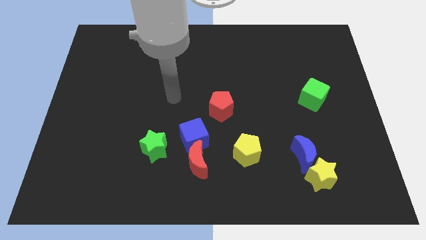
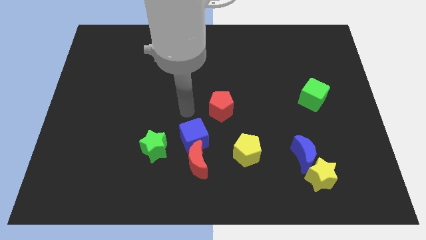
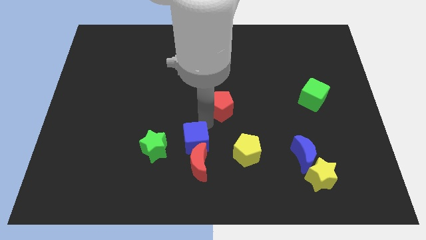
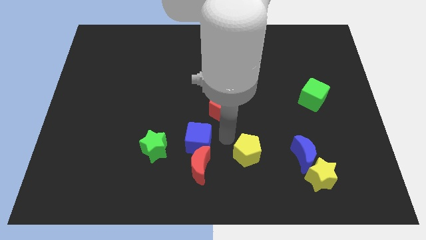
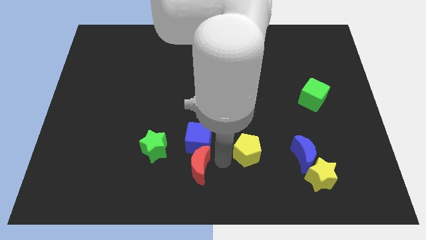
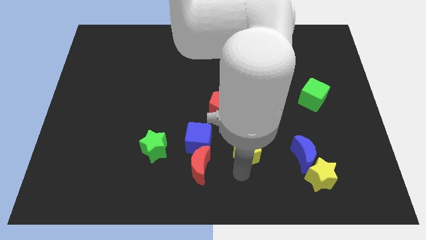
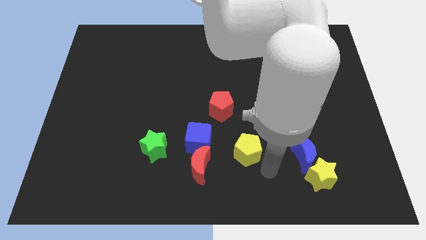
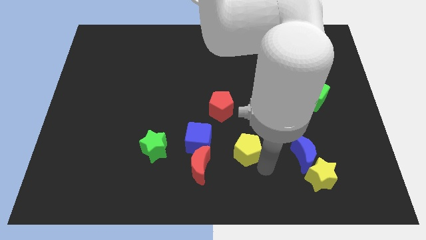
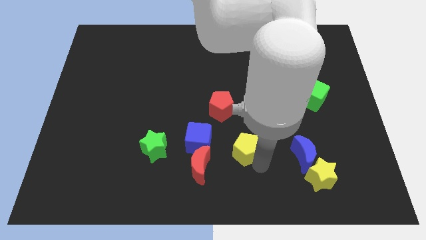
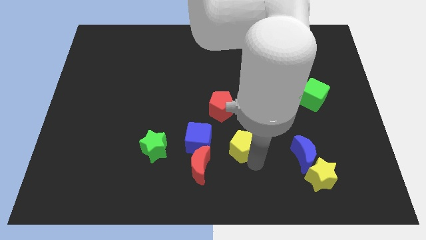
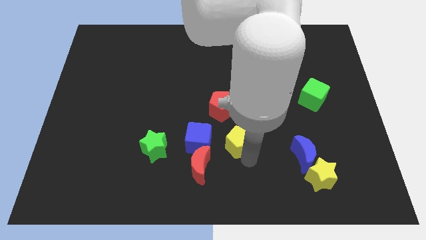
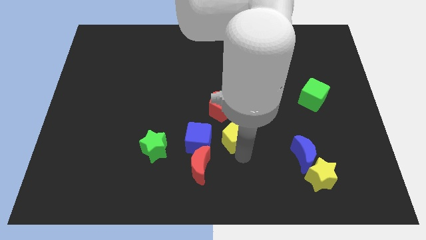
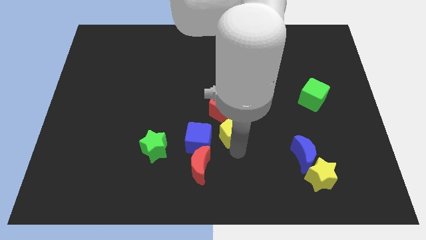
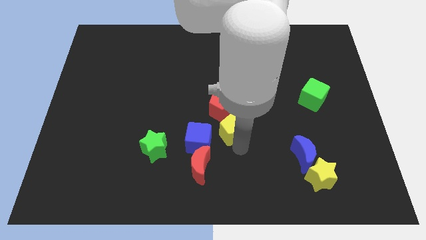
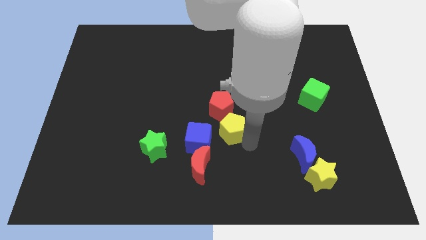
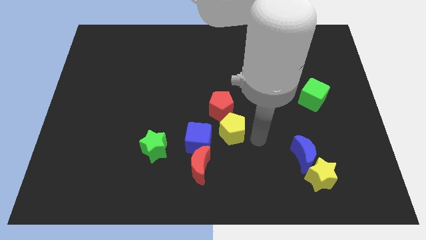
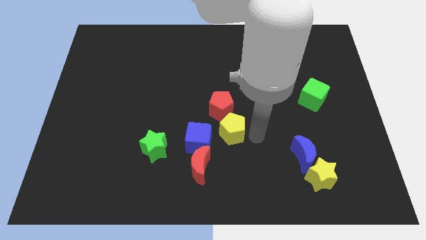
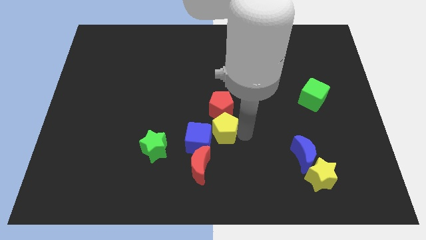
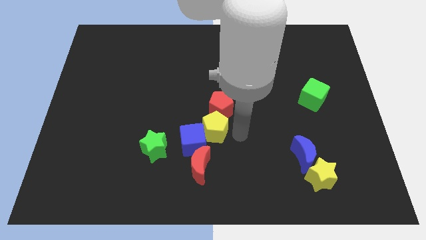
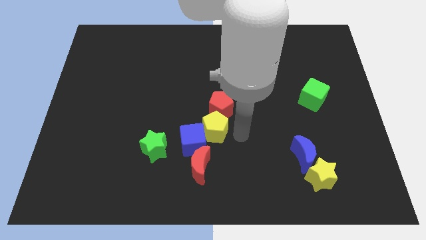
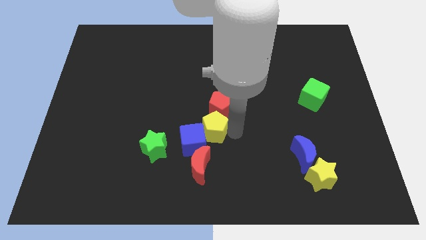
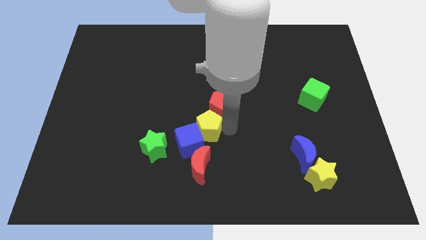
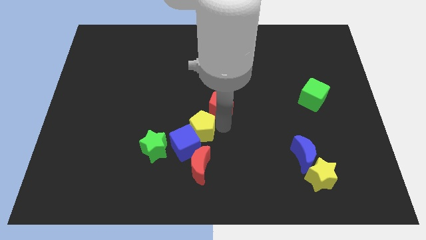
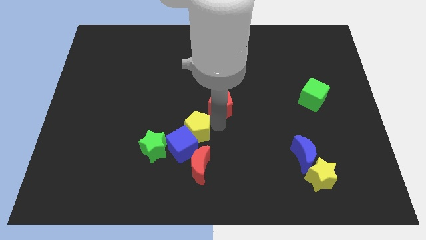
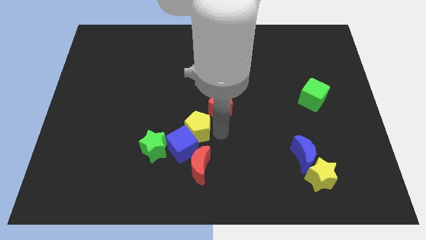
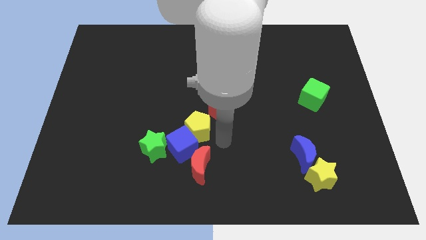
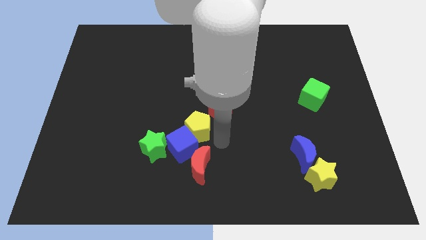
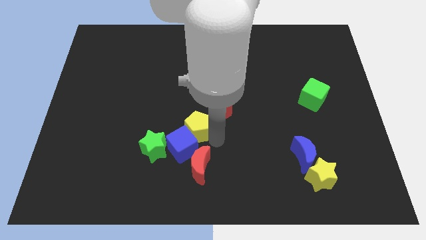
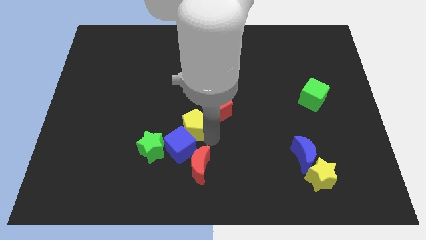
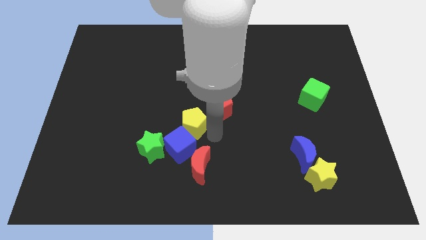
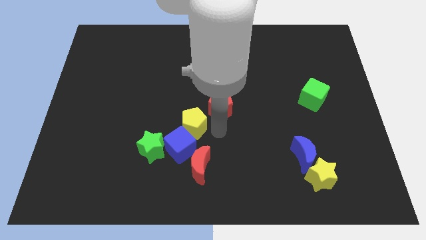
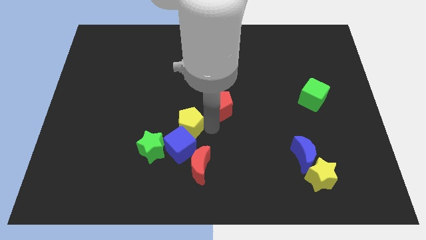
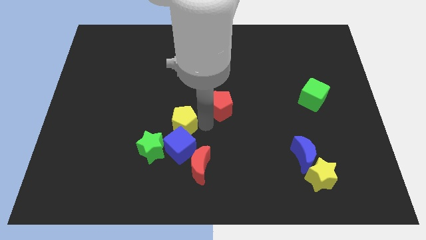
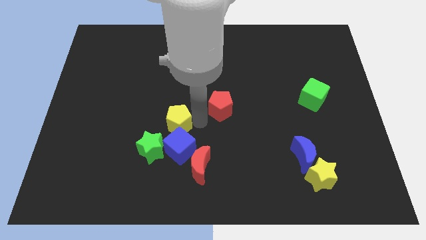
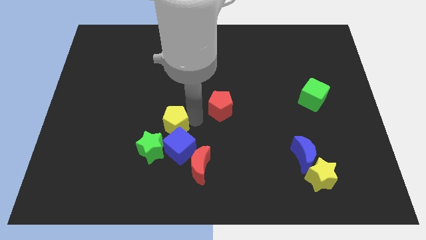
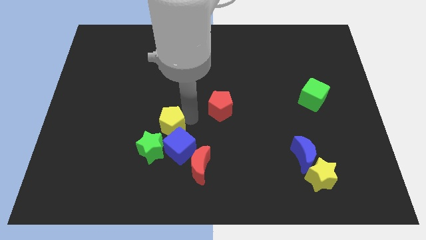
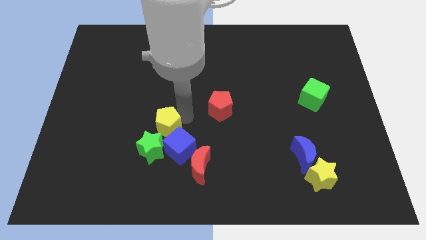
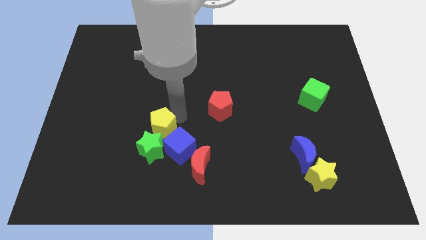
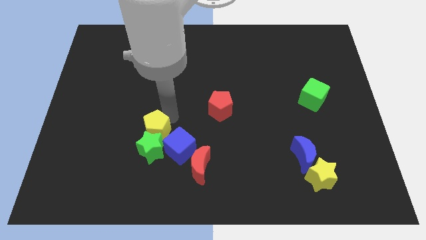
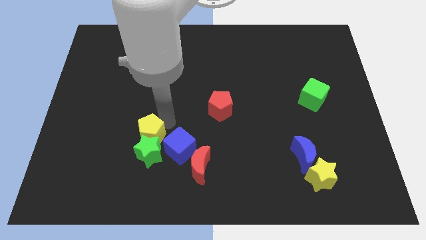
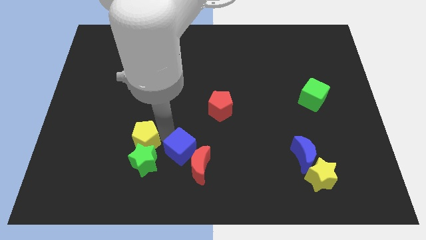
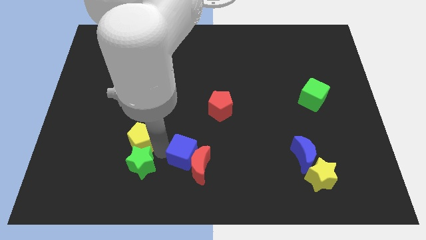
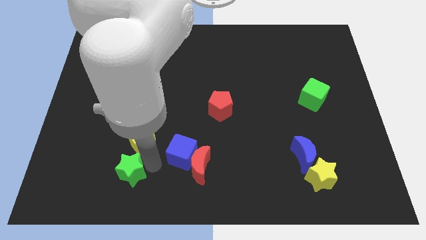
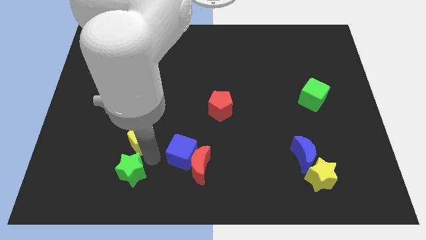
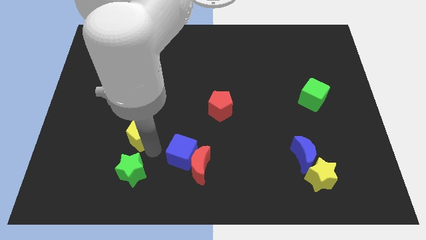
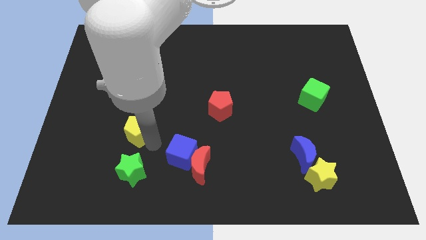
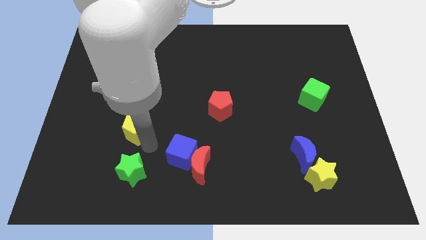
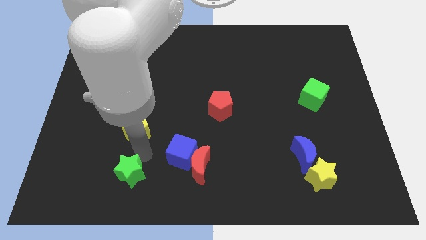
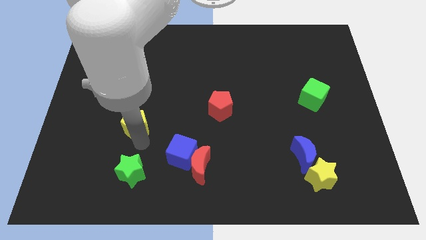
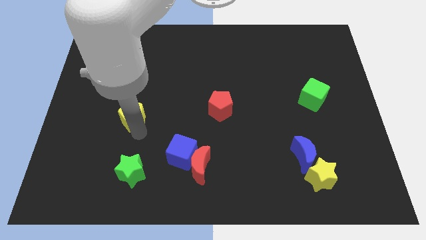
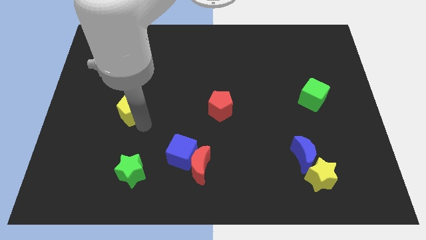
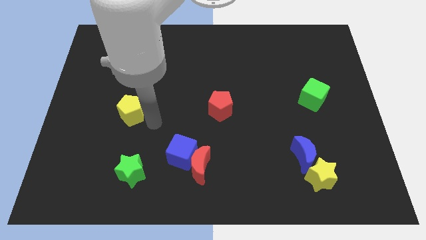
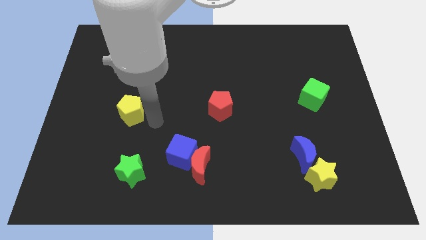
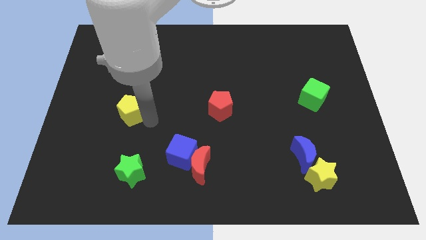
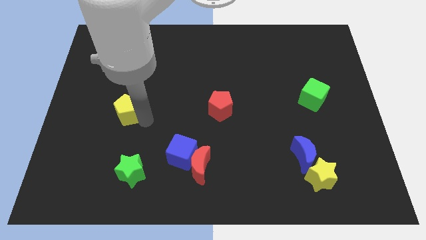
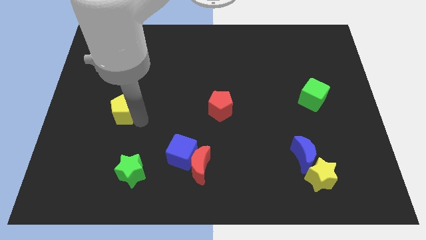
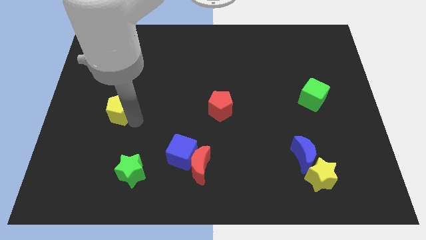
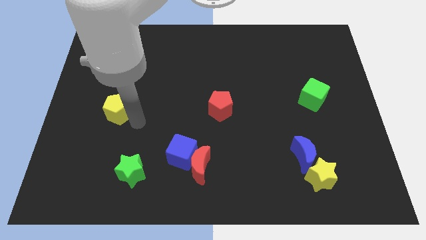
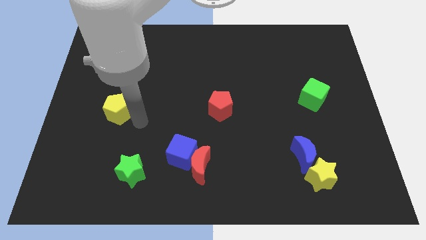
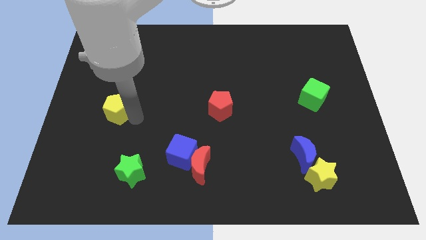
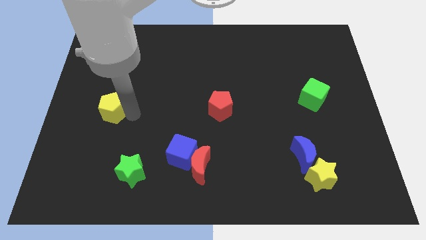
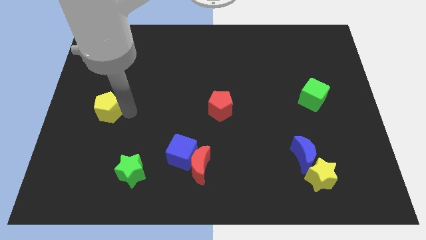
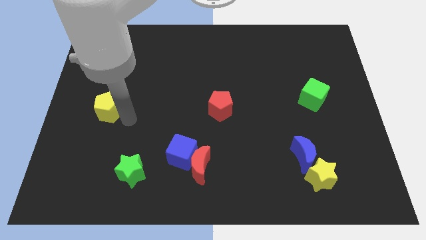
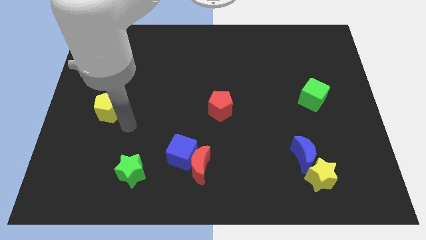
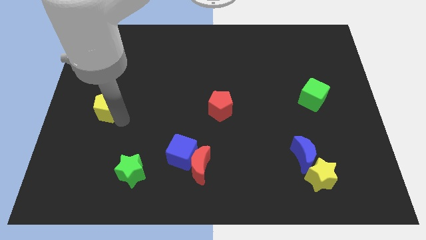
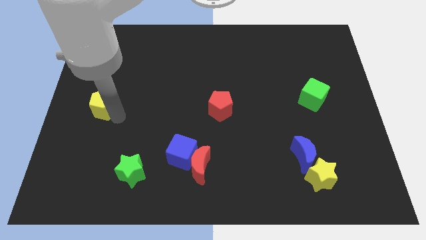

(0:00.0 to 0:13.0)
move the yellow pentagon to the center left

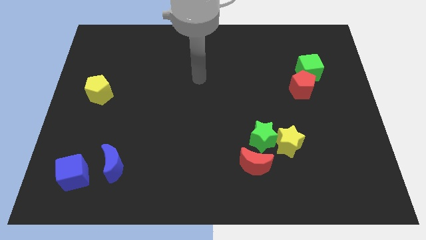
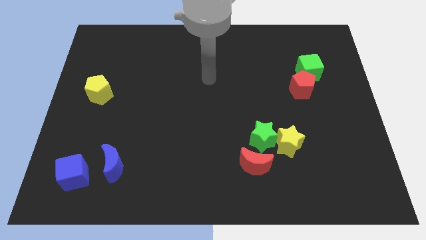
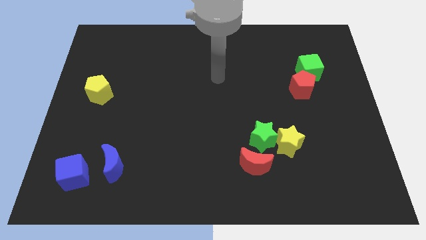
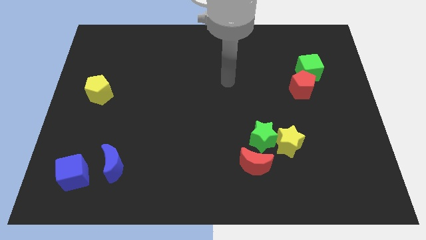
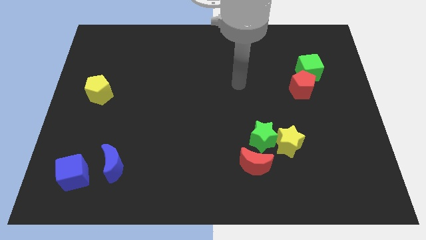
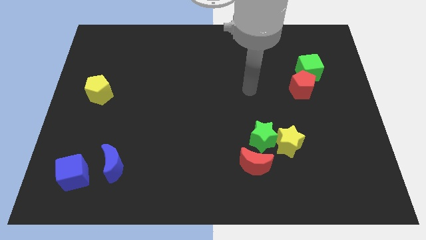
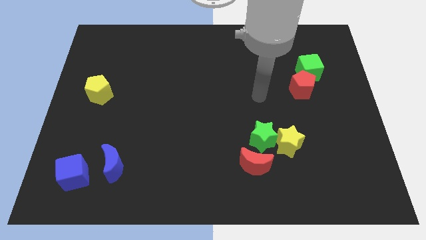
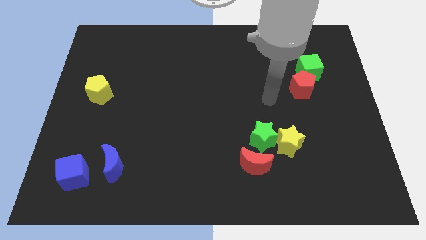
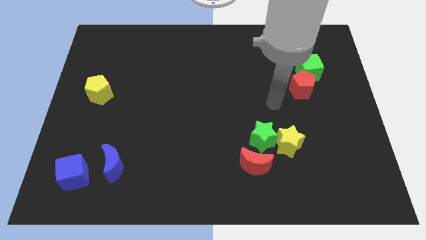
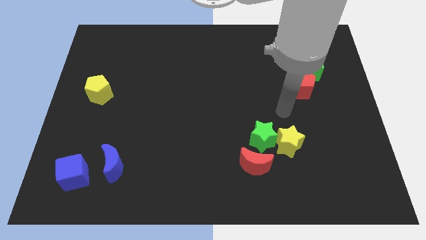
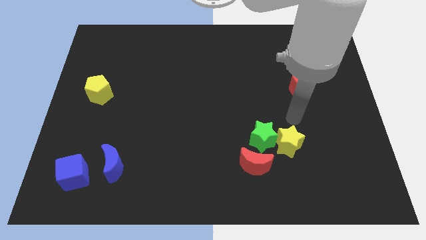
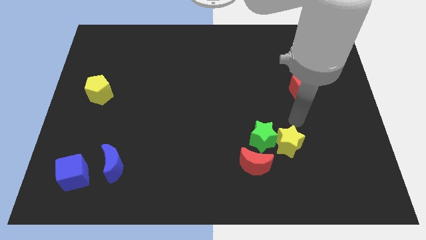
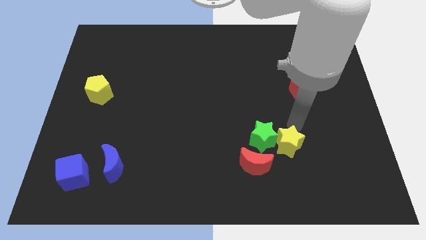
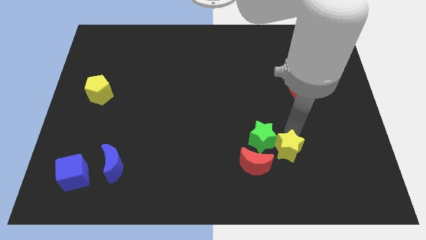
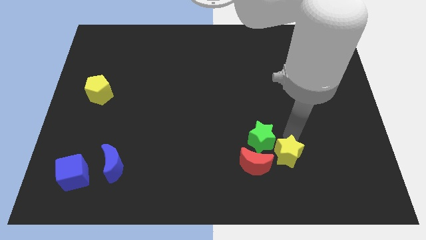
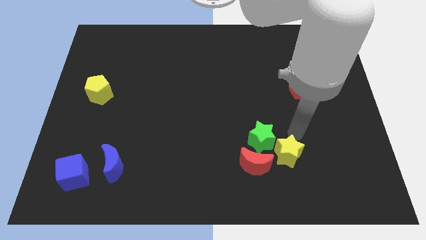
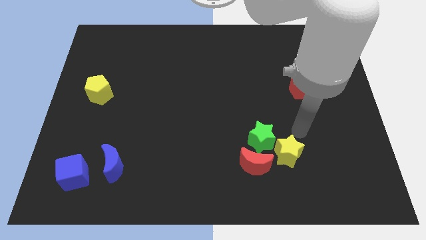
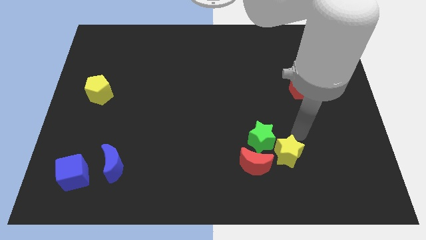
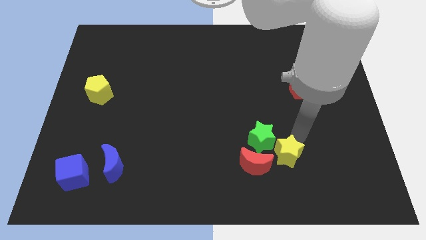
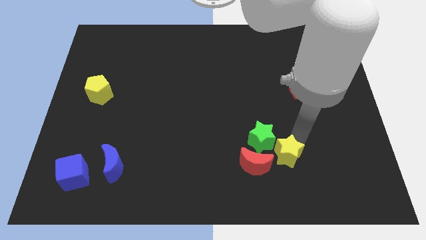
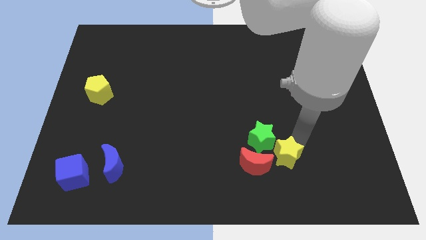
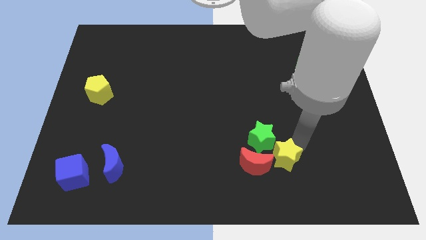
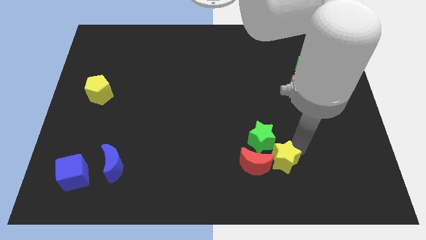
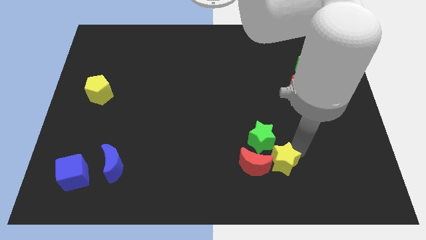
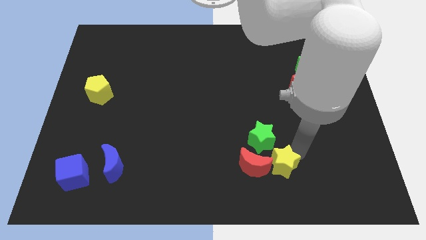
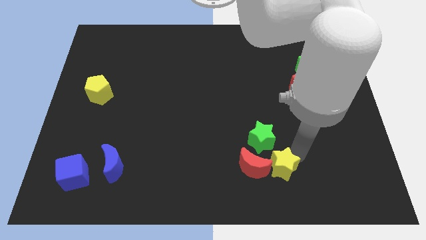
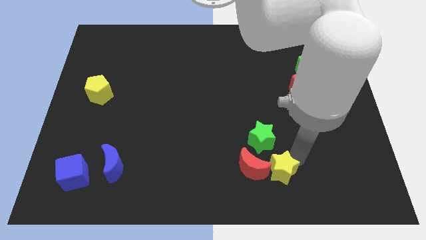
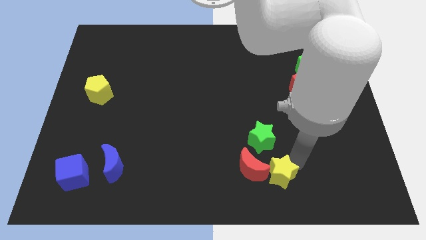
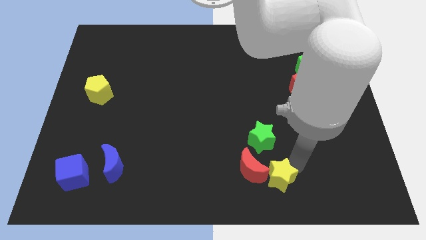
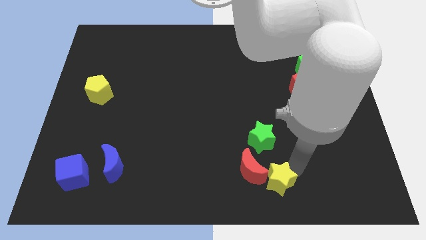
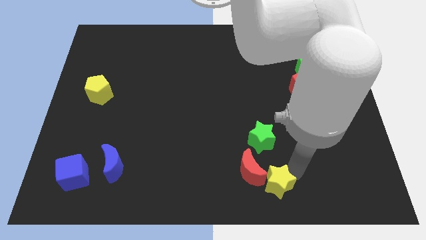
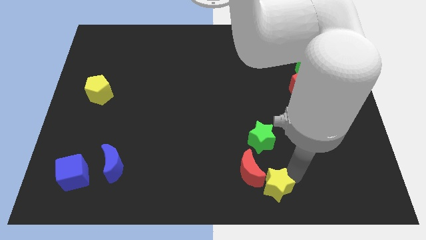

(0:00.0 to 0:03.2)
push the yellow star to the bottom
